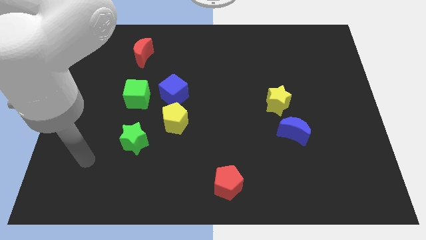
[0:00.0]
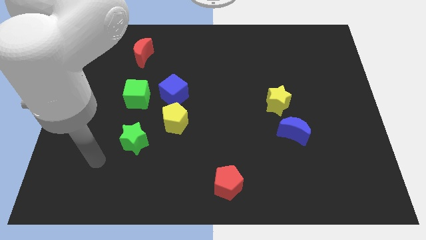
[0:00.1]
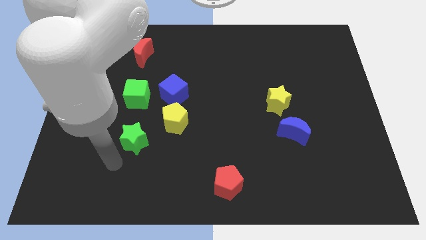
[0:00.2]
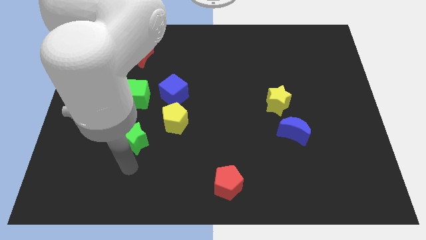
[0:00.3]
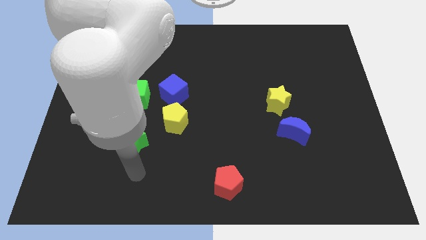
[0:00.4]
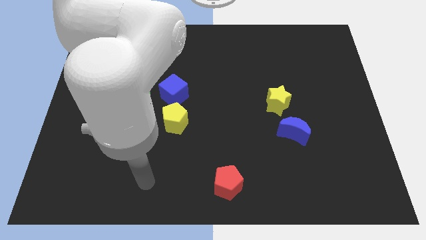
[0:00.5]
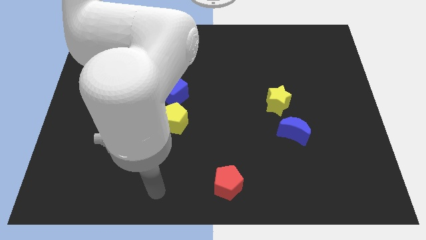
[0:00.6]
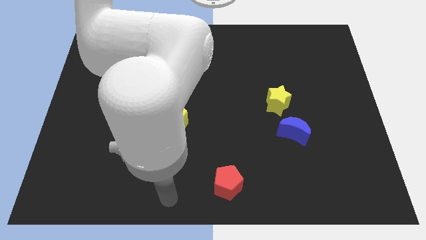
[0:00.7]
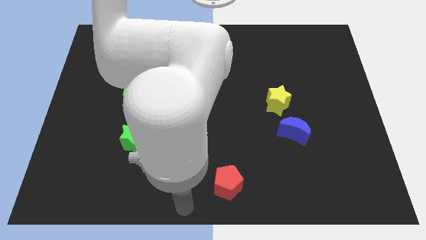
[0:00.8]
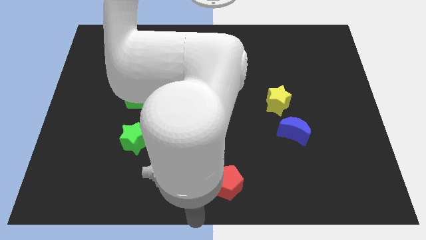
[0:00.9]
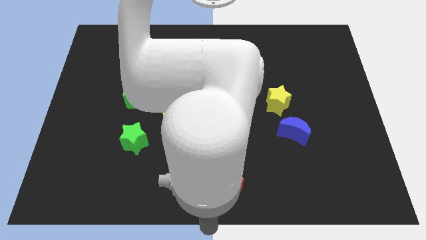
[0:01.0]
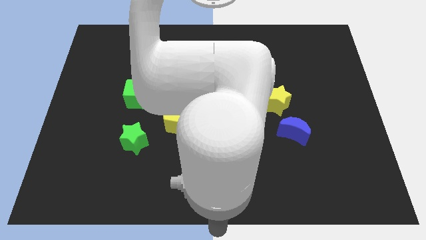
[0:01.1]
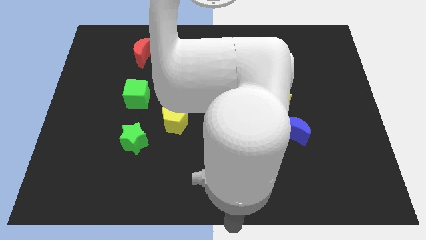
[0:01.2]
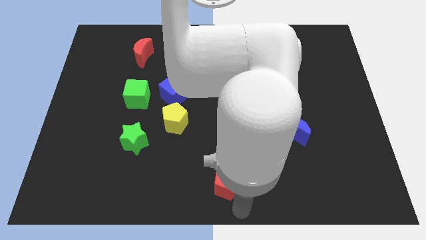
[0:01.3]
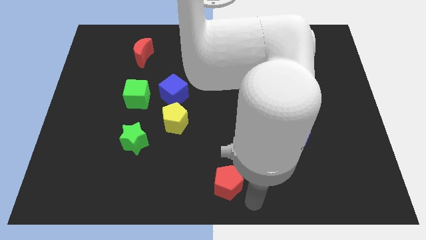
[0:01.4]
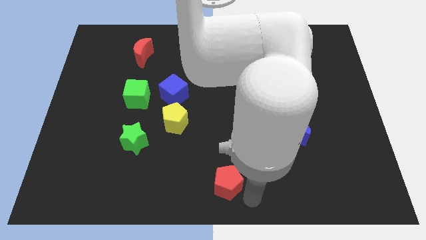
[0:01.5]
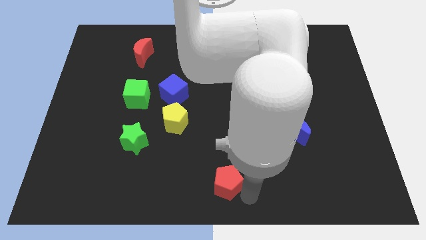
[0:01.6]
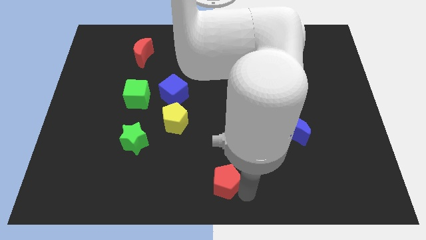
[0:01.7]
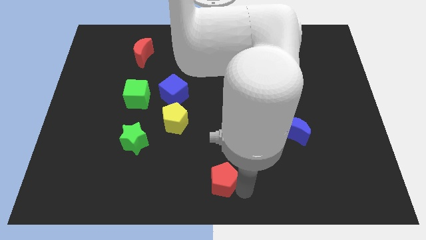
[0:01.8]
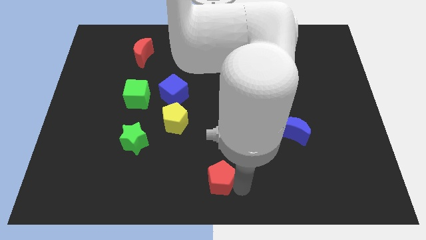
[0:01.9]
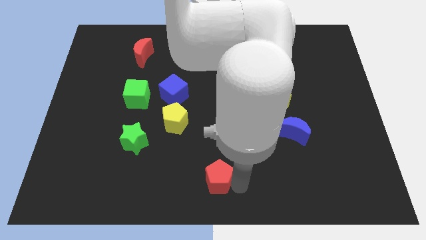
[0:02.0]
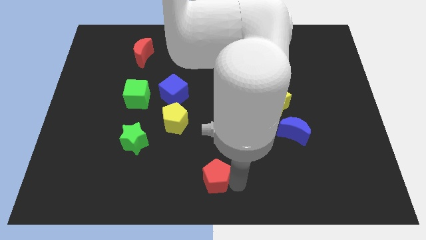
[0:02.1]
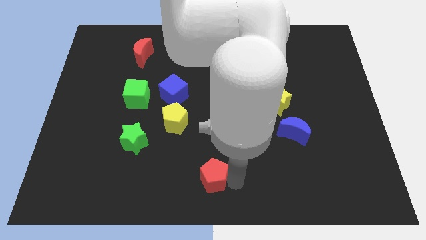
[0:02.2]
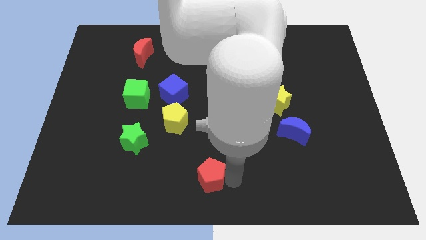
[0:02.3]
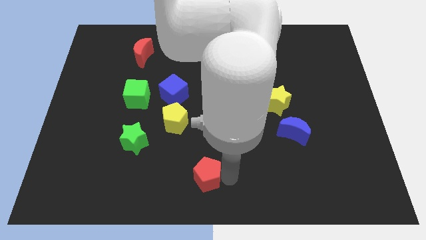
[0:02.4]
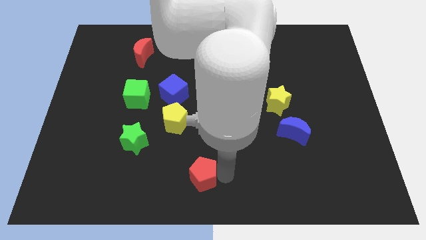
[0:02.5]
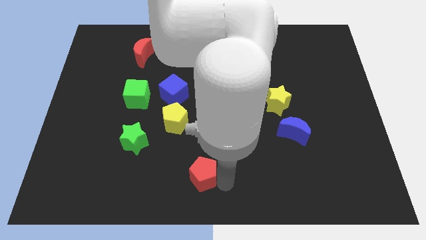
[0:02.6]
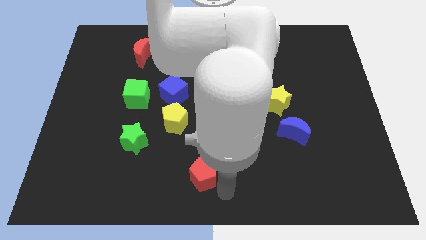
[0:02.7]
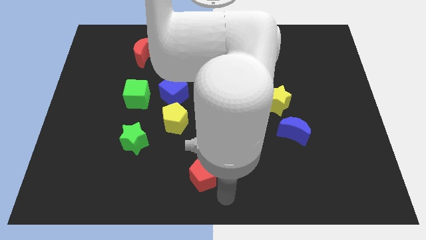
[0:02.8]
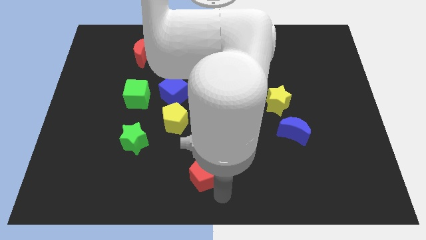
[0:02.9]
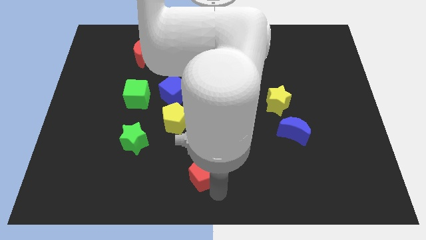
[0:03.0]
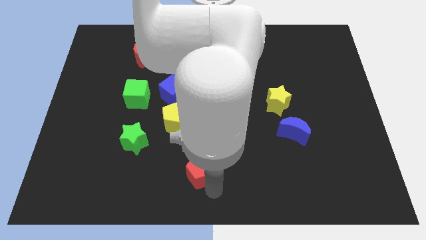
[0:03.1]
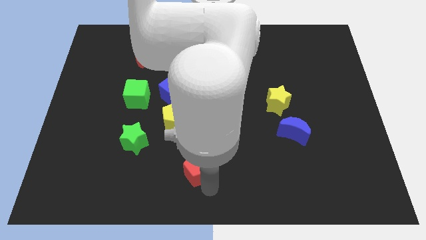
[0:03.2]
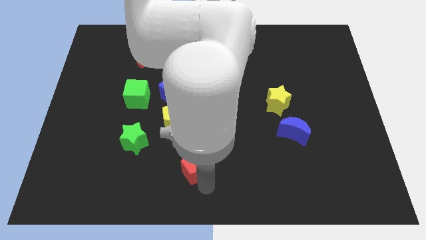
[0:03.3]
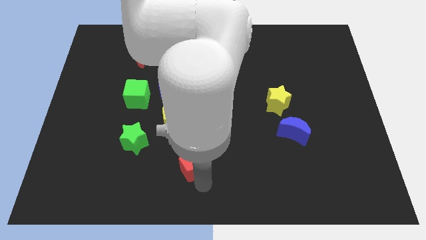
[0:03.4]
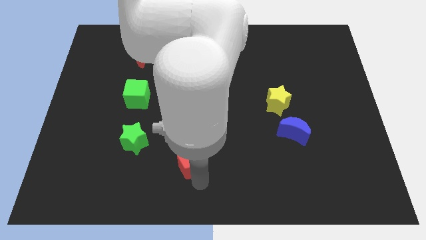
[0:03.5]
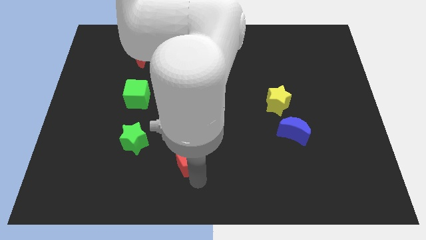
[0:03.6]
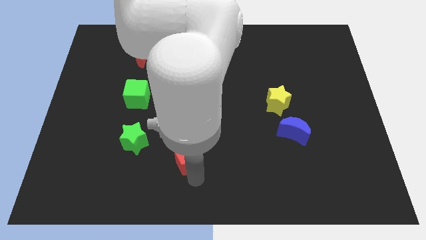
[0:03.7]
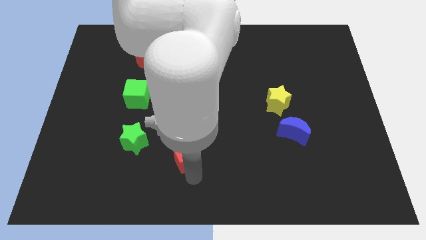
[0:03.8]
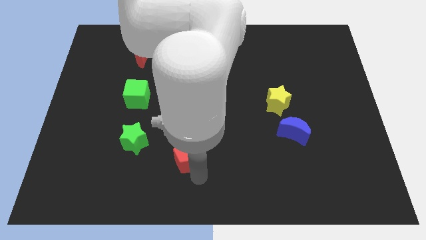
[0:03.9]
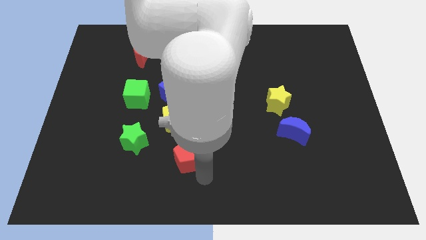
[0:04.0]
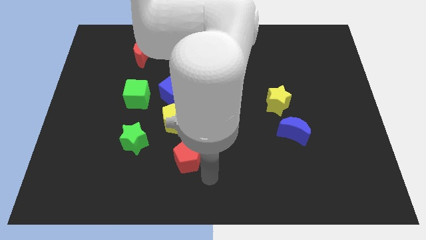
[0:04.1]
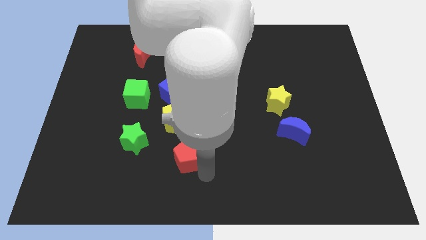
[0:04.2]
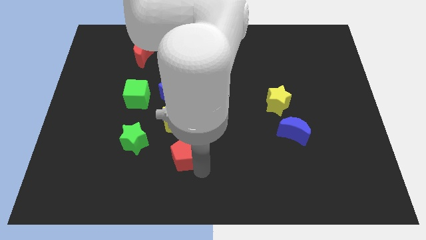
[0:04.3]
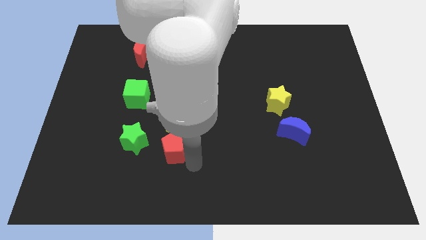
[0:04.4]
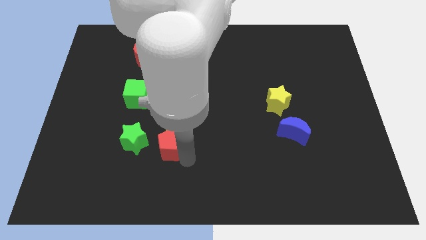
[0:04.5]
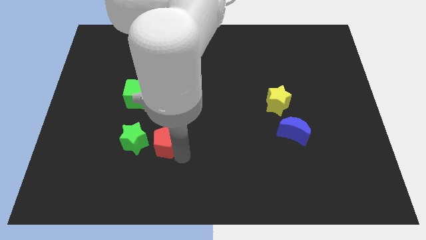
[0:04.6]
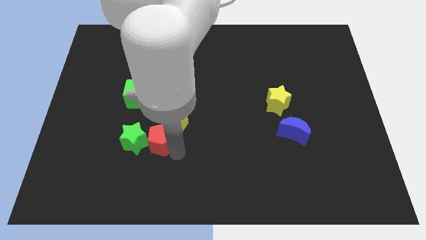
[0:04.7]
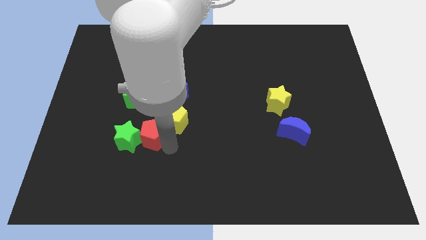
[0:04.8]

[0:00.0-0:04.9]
move the red pentagon to the left of the yellow pentagon

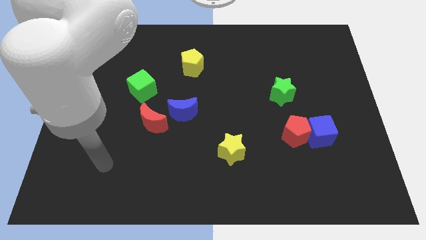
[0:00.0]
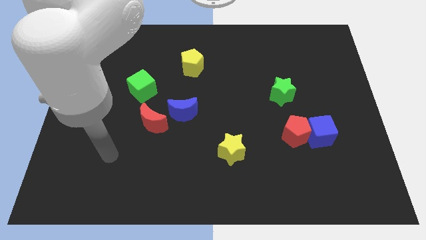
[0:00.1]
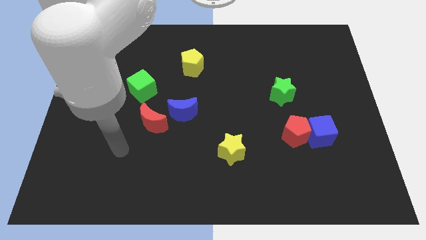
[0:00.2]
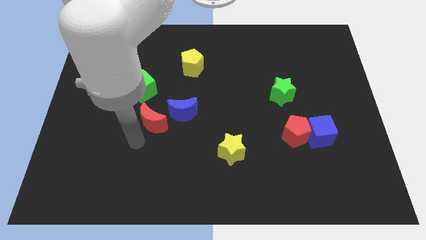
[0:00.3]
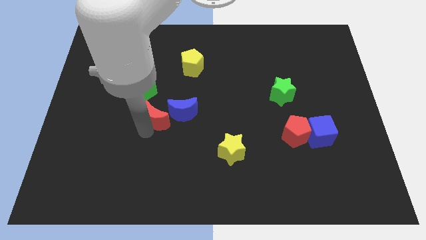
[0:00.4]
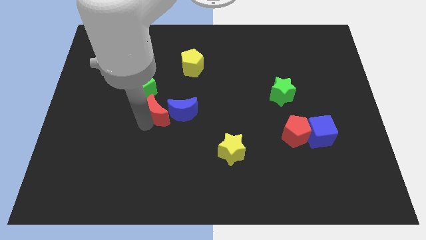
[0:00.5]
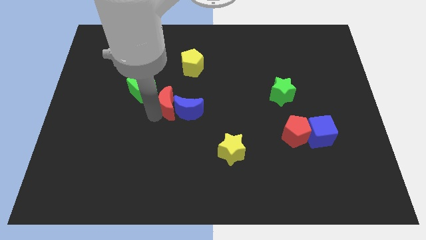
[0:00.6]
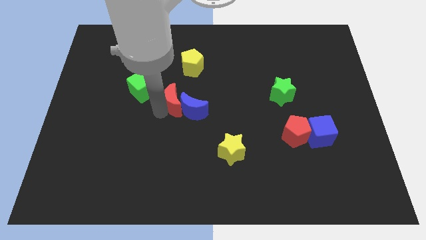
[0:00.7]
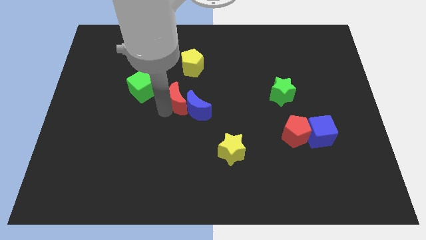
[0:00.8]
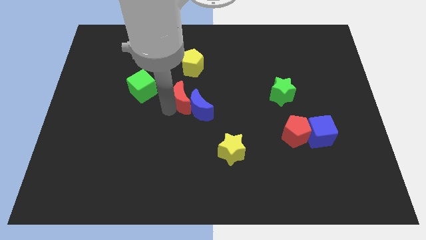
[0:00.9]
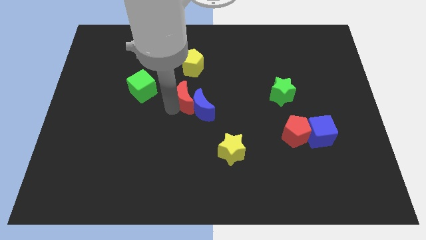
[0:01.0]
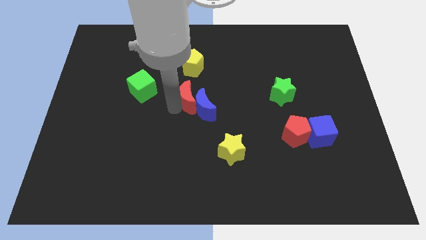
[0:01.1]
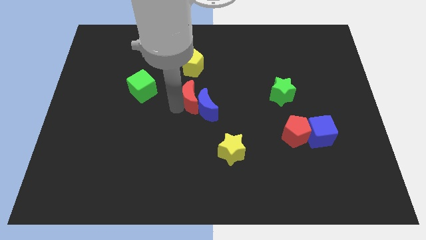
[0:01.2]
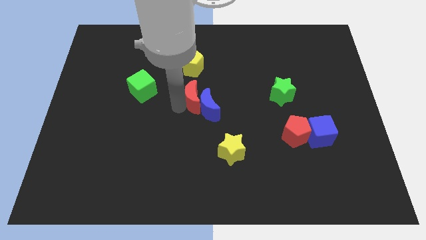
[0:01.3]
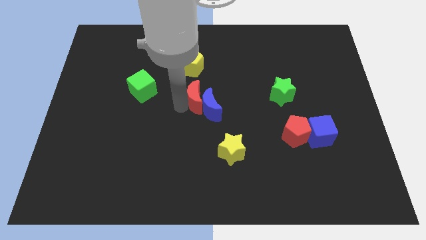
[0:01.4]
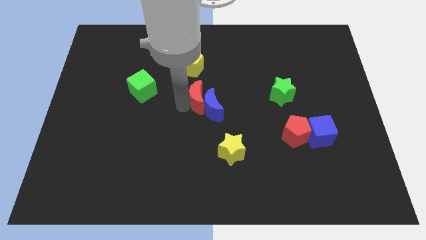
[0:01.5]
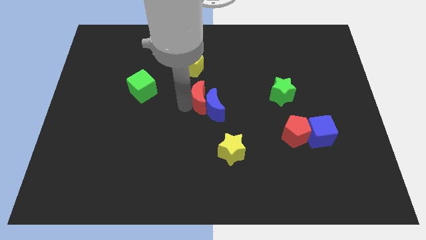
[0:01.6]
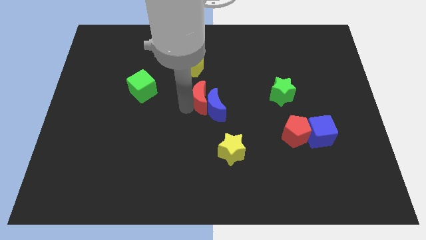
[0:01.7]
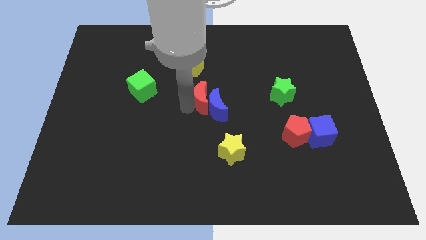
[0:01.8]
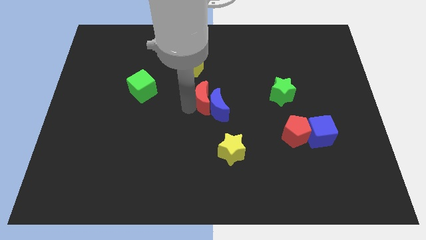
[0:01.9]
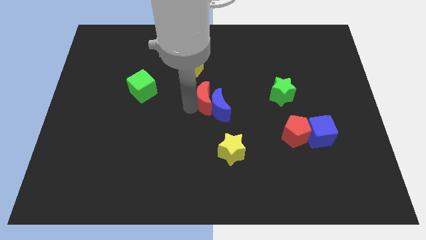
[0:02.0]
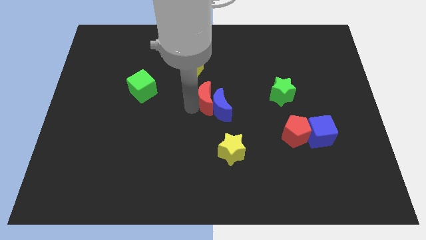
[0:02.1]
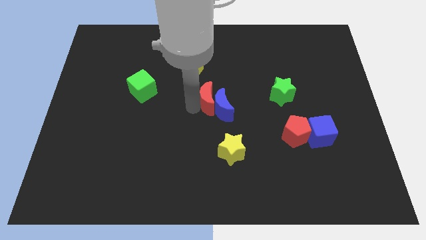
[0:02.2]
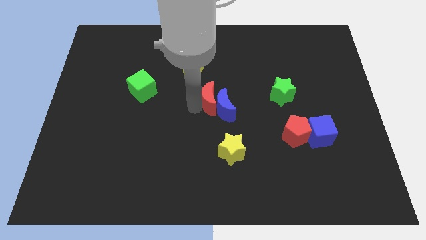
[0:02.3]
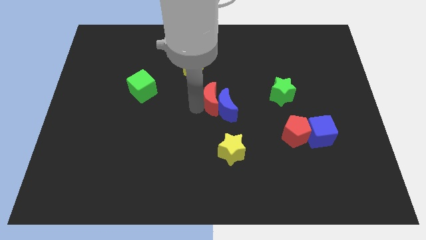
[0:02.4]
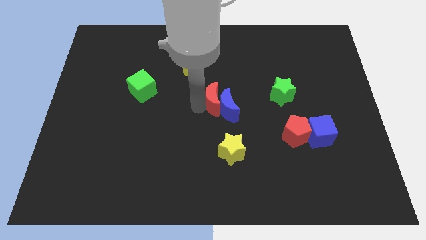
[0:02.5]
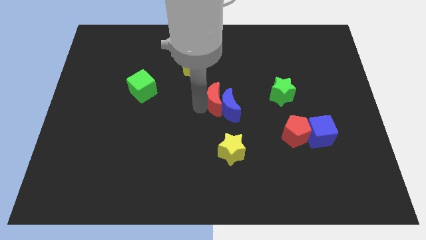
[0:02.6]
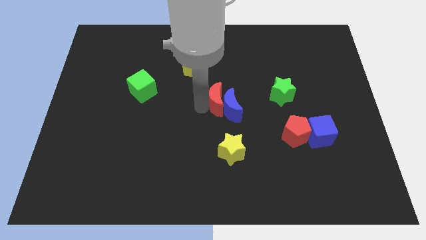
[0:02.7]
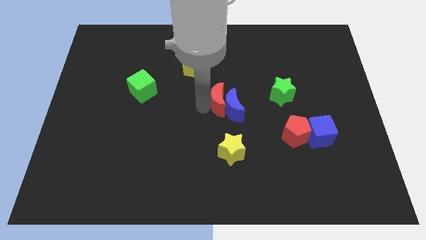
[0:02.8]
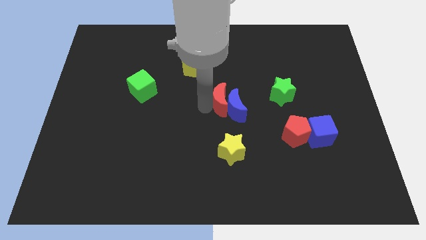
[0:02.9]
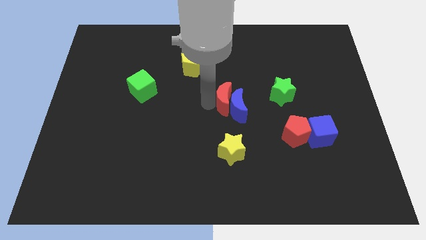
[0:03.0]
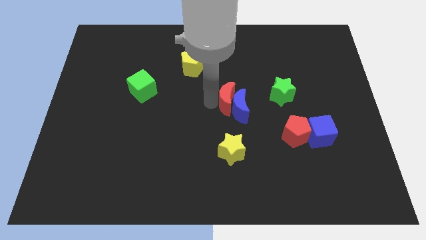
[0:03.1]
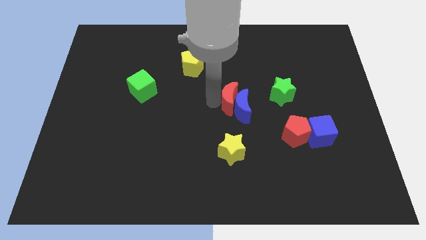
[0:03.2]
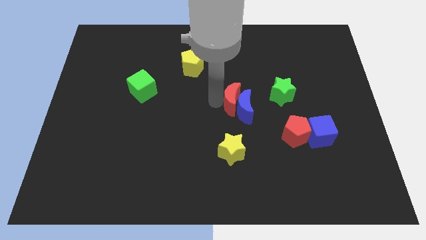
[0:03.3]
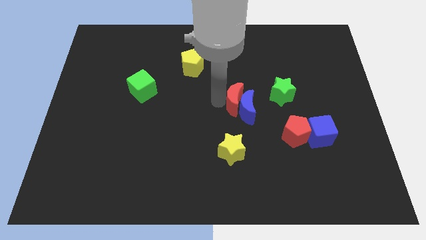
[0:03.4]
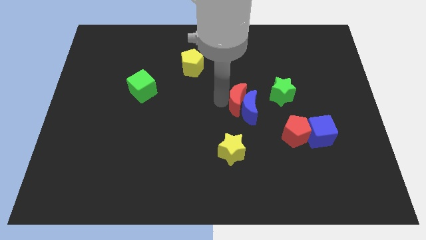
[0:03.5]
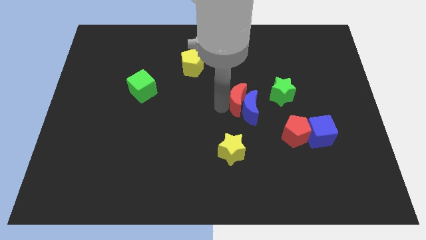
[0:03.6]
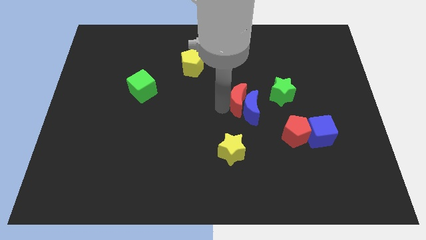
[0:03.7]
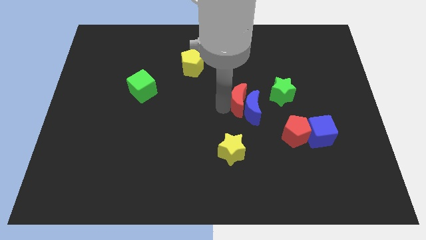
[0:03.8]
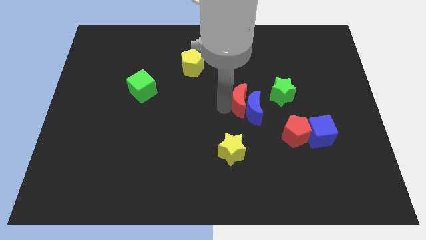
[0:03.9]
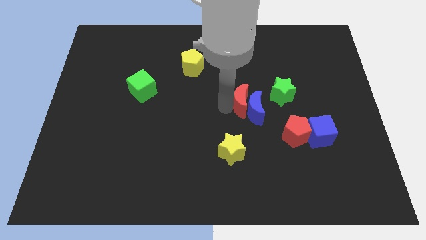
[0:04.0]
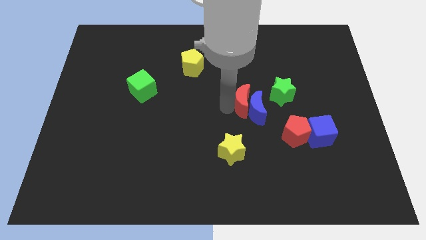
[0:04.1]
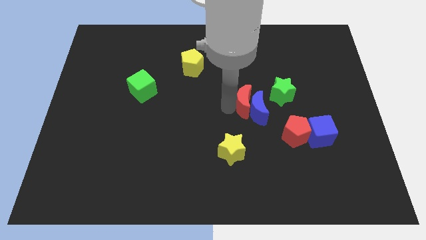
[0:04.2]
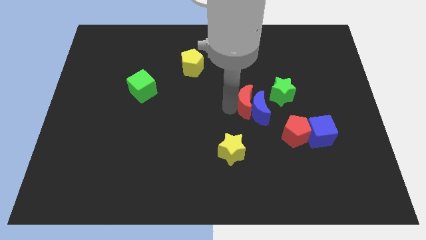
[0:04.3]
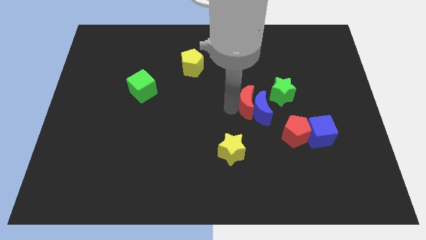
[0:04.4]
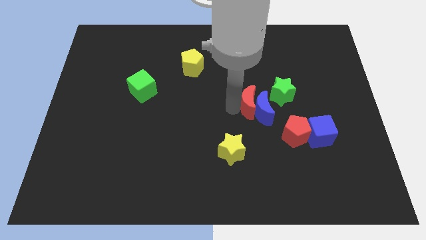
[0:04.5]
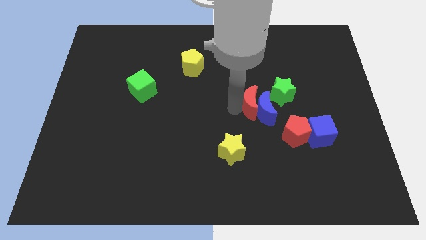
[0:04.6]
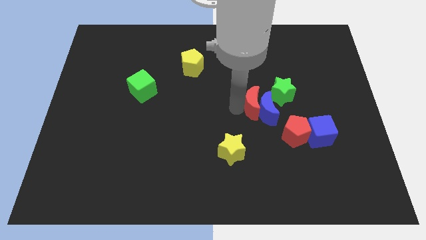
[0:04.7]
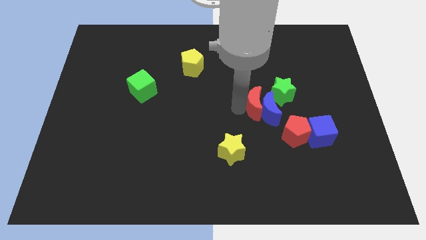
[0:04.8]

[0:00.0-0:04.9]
push the blue moon diagonally up and to the left of the blue cube
